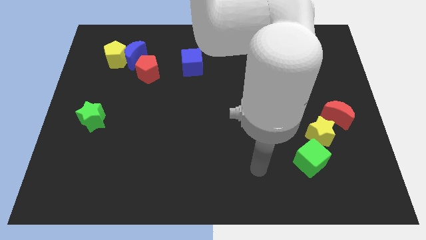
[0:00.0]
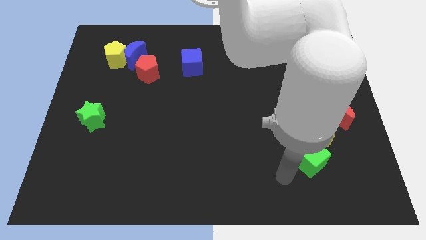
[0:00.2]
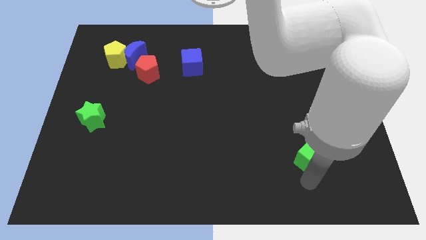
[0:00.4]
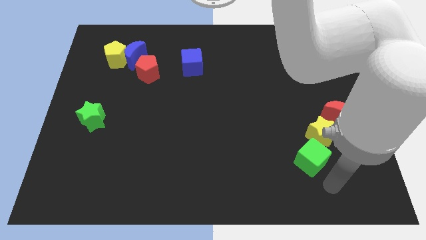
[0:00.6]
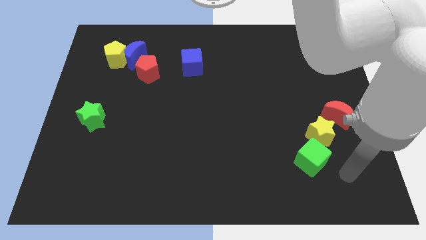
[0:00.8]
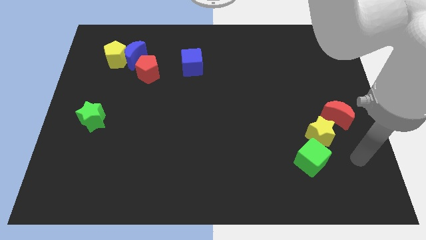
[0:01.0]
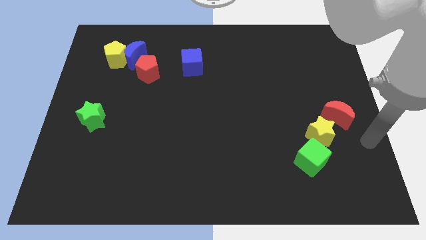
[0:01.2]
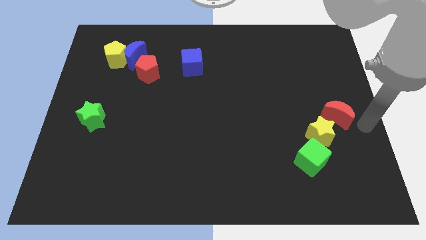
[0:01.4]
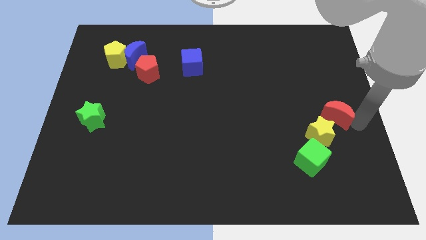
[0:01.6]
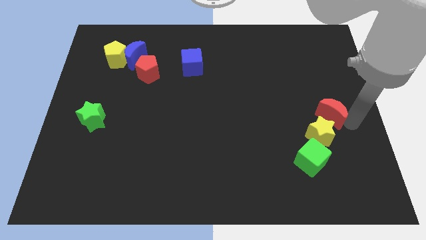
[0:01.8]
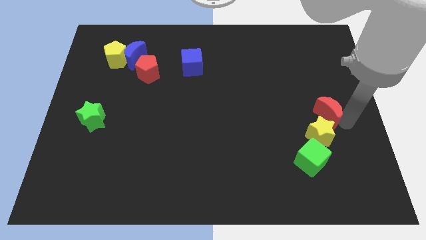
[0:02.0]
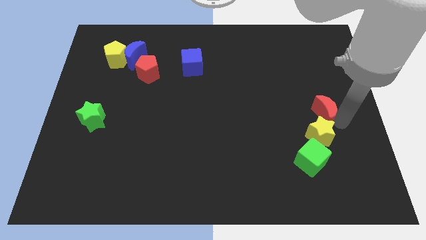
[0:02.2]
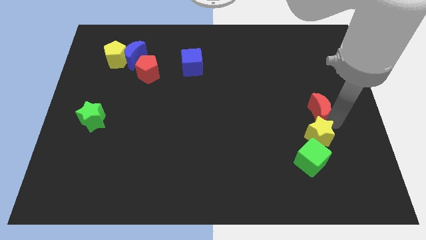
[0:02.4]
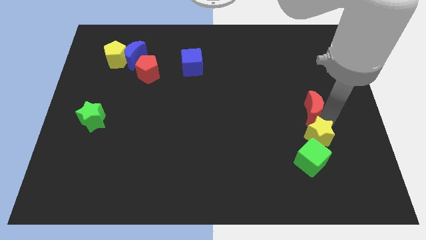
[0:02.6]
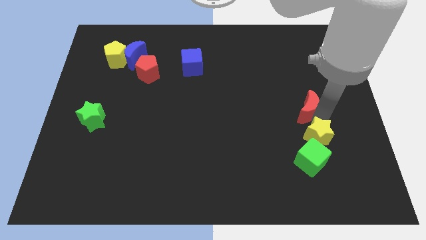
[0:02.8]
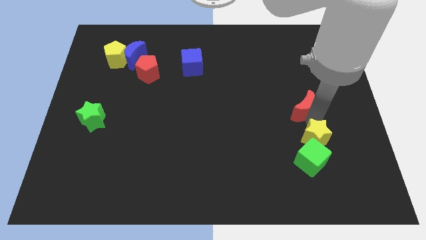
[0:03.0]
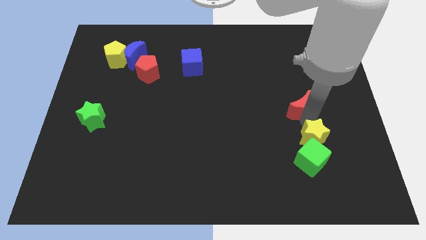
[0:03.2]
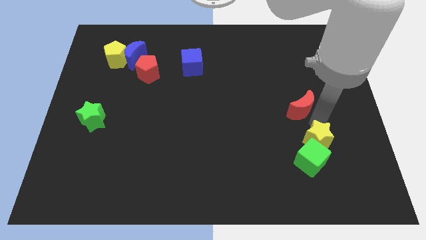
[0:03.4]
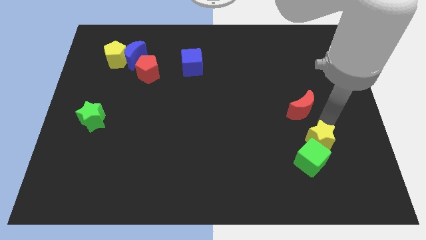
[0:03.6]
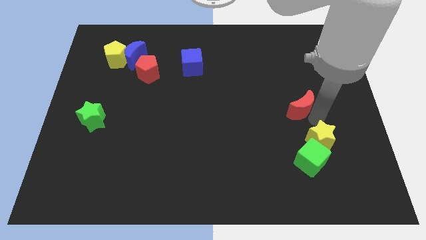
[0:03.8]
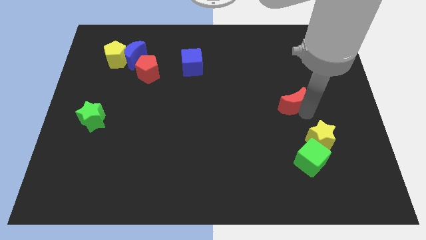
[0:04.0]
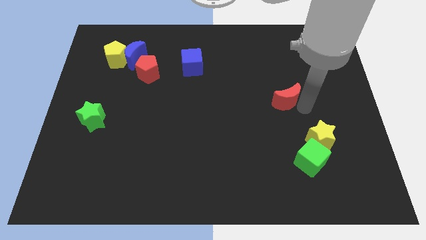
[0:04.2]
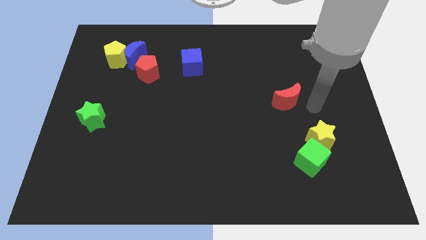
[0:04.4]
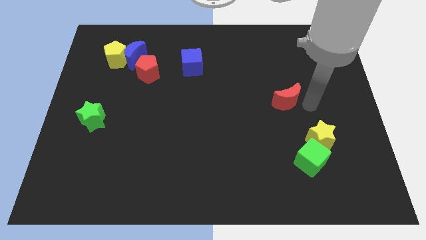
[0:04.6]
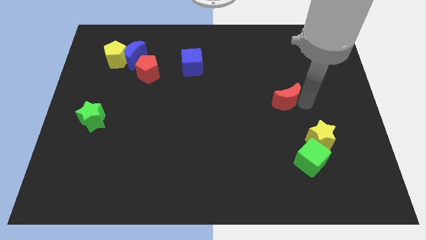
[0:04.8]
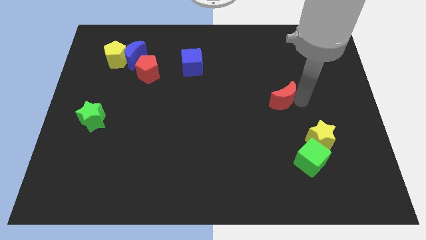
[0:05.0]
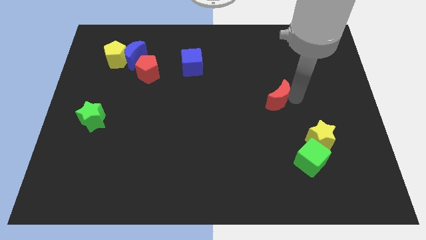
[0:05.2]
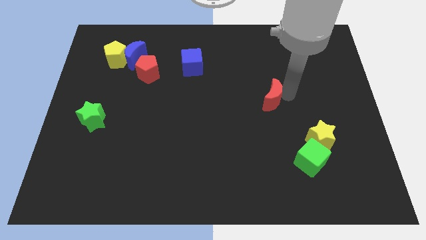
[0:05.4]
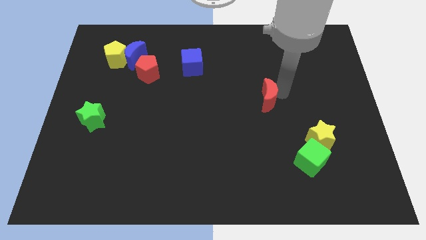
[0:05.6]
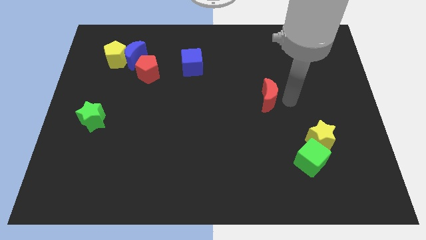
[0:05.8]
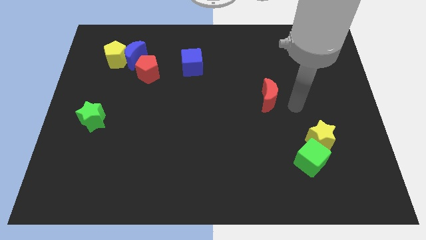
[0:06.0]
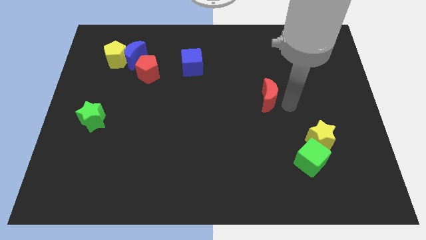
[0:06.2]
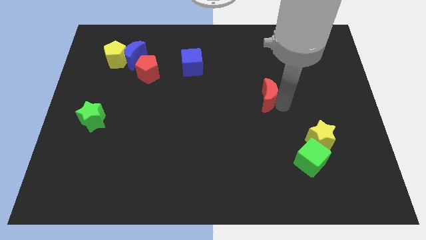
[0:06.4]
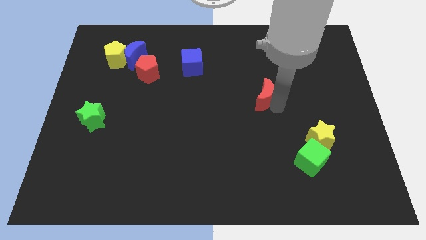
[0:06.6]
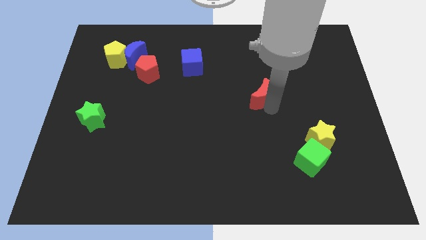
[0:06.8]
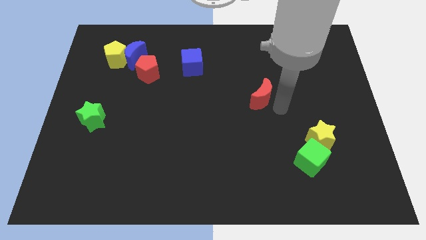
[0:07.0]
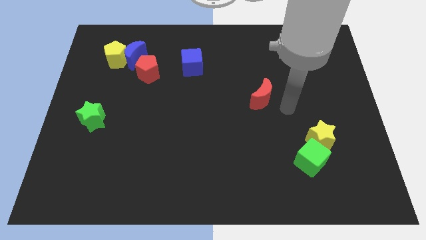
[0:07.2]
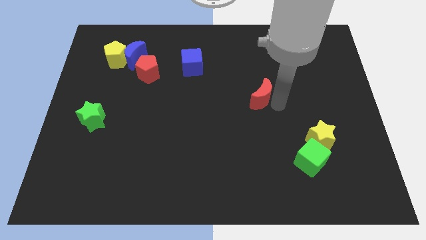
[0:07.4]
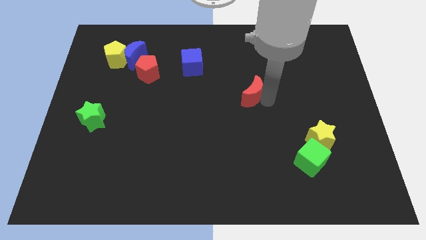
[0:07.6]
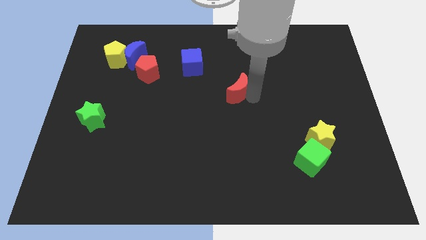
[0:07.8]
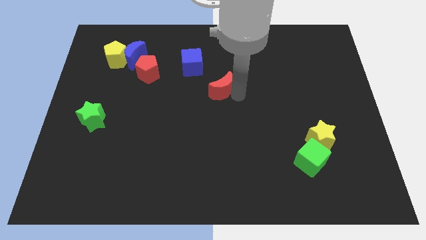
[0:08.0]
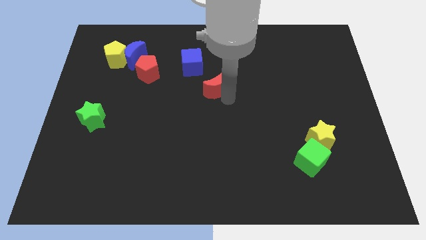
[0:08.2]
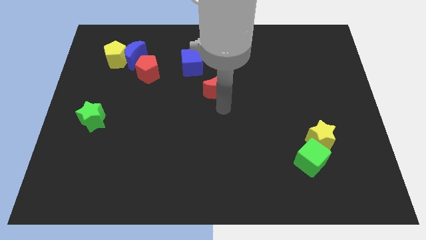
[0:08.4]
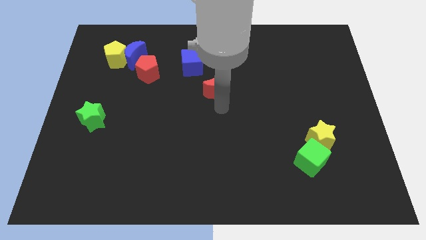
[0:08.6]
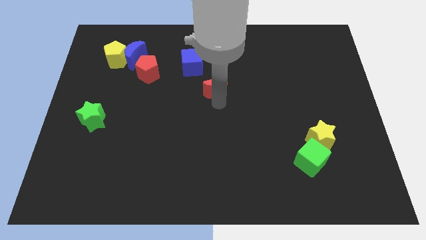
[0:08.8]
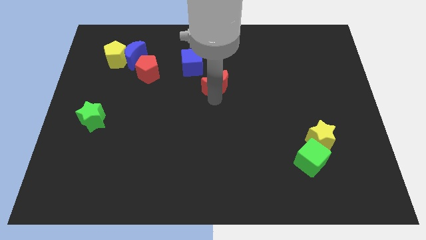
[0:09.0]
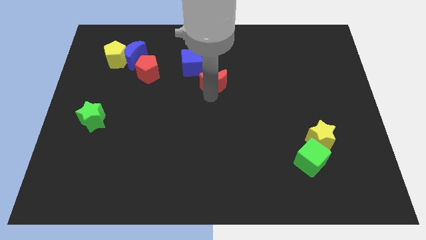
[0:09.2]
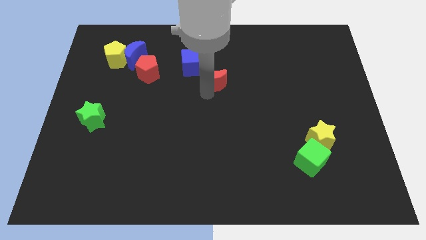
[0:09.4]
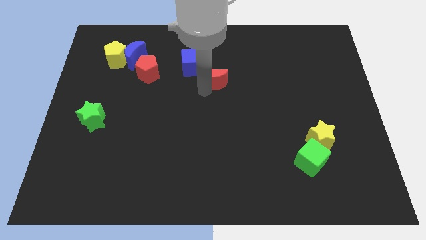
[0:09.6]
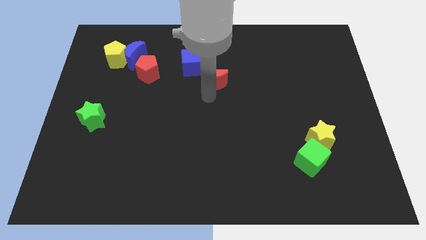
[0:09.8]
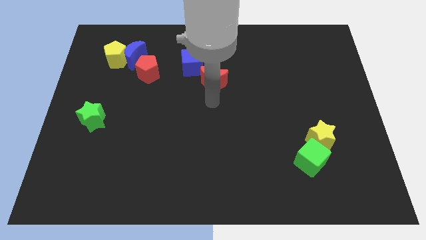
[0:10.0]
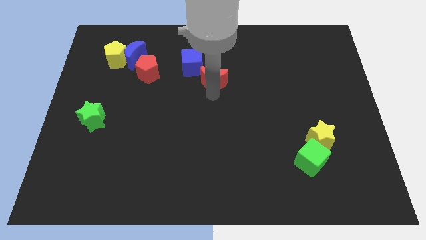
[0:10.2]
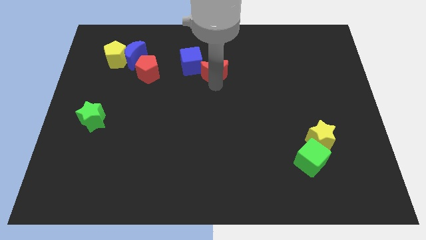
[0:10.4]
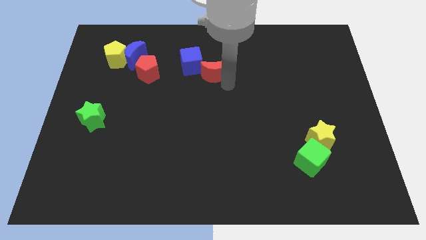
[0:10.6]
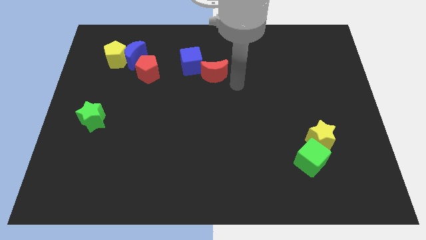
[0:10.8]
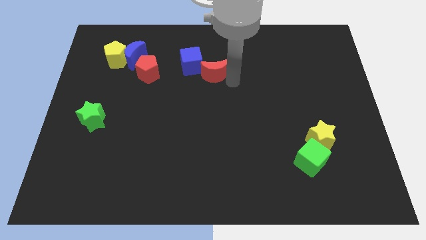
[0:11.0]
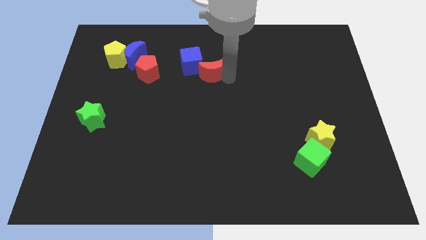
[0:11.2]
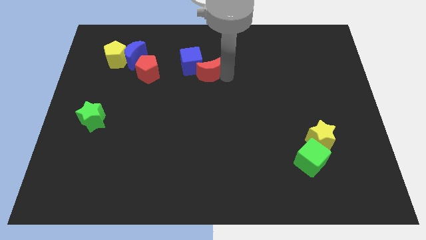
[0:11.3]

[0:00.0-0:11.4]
slide the red moon to the blue cube

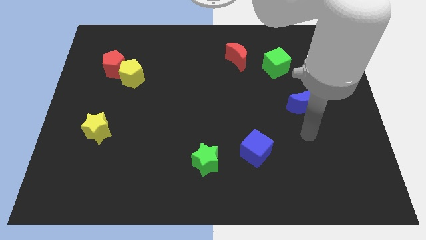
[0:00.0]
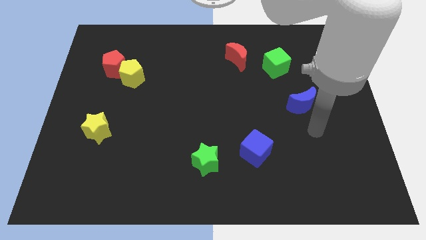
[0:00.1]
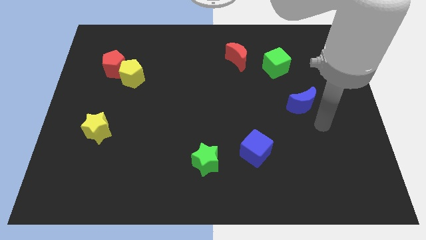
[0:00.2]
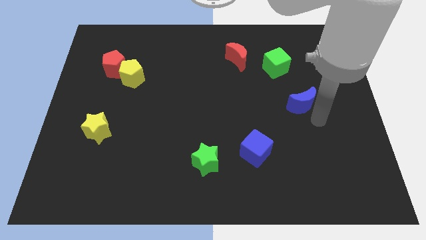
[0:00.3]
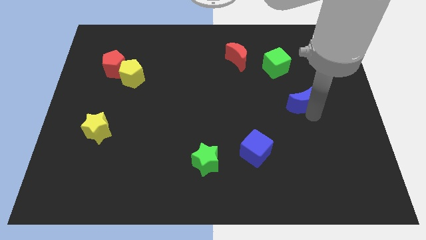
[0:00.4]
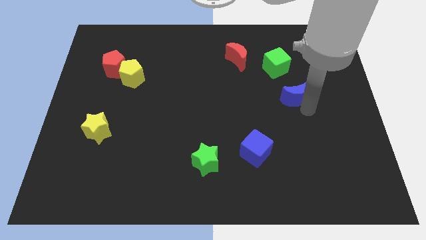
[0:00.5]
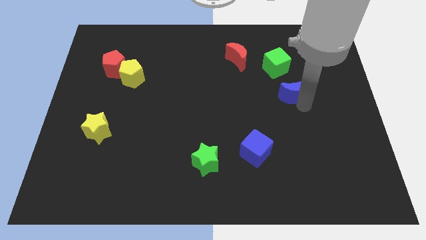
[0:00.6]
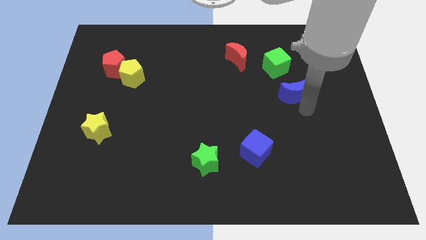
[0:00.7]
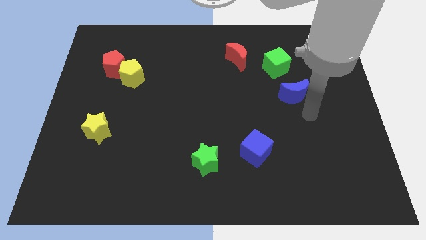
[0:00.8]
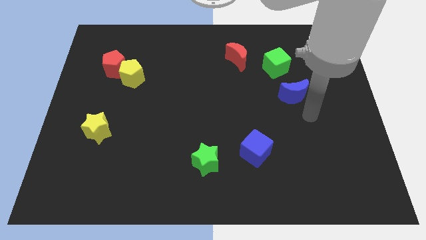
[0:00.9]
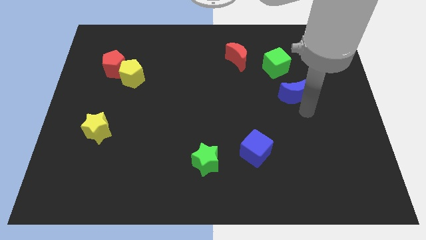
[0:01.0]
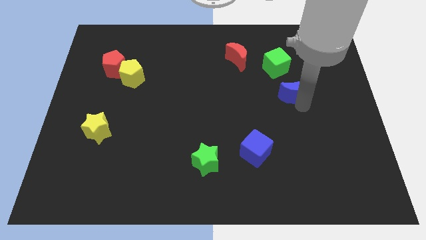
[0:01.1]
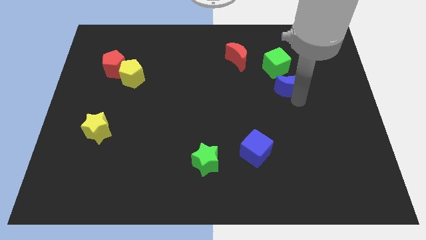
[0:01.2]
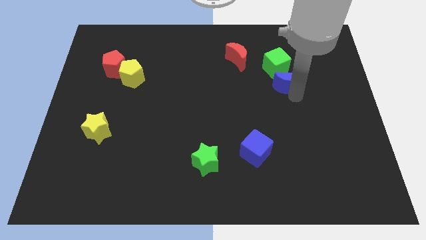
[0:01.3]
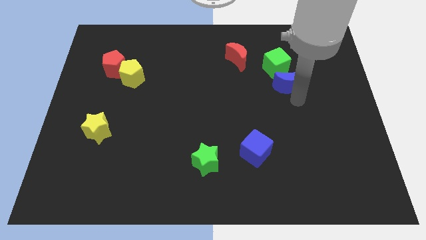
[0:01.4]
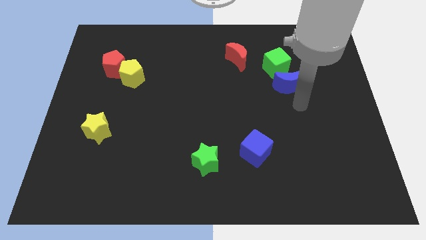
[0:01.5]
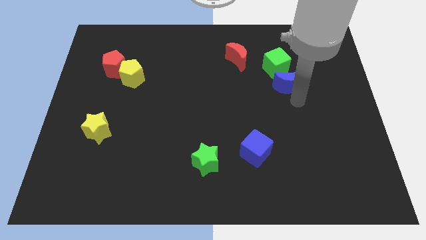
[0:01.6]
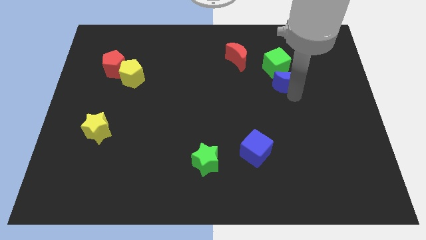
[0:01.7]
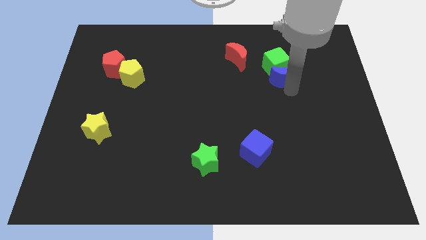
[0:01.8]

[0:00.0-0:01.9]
move the blue moon to the green cube
